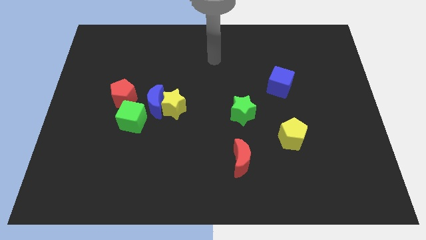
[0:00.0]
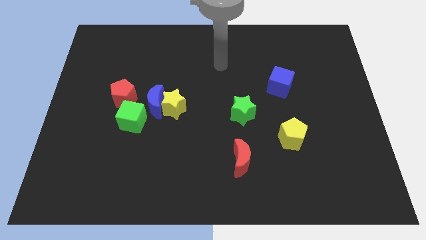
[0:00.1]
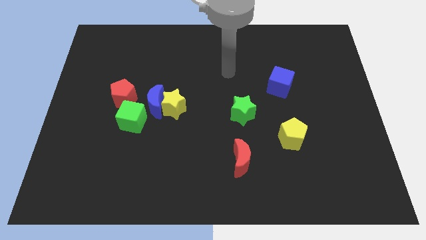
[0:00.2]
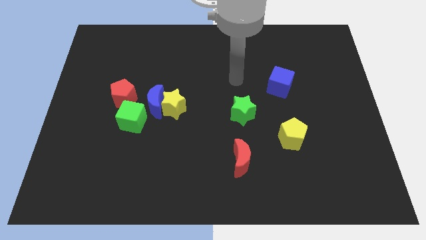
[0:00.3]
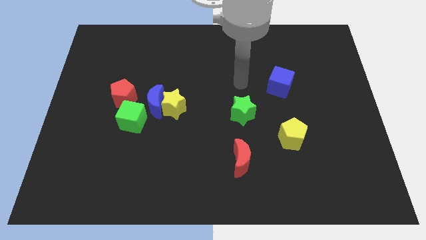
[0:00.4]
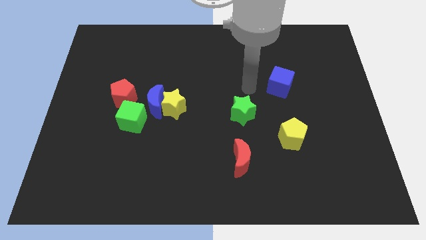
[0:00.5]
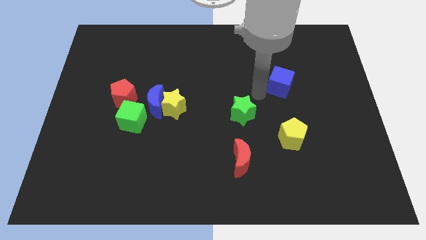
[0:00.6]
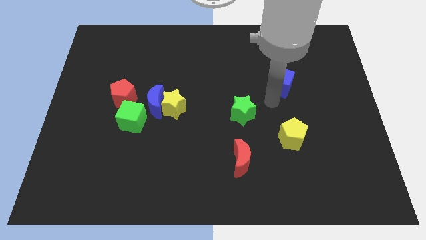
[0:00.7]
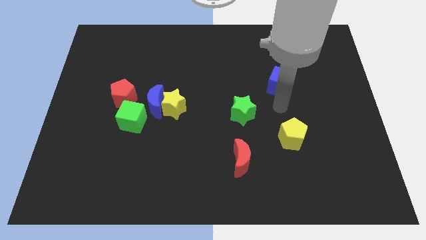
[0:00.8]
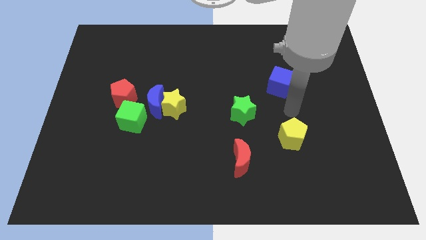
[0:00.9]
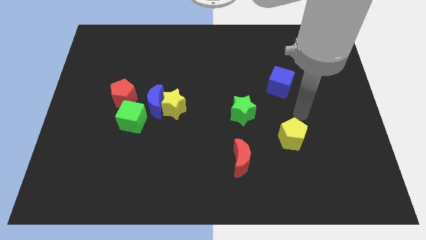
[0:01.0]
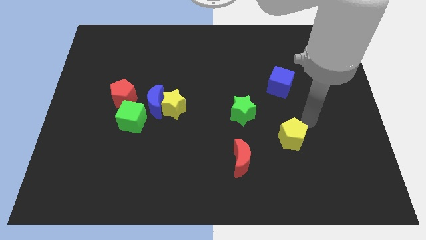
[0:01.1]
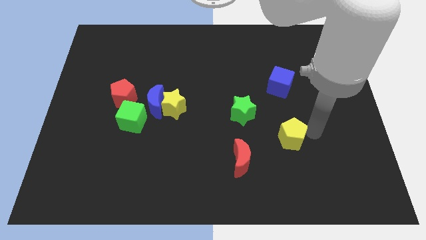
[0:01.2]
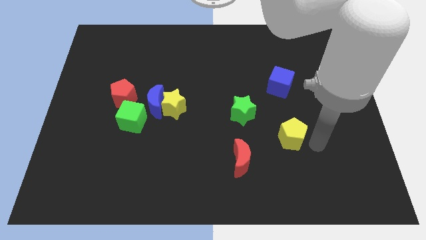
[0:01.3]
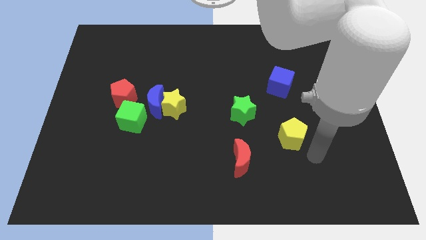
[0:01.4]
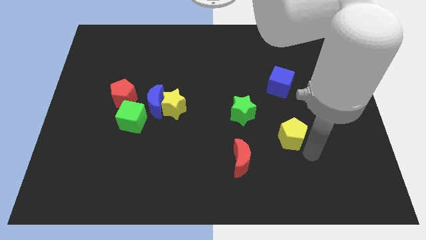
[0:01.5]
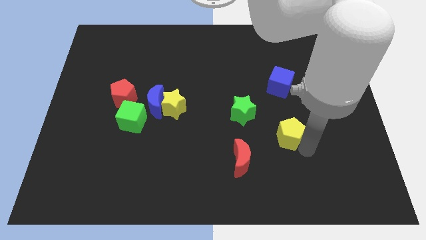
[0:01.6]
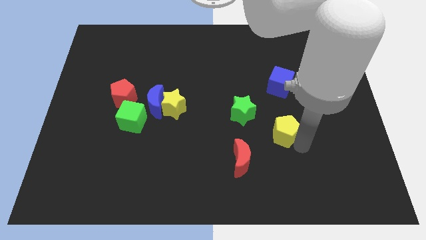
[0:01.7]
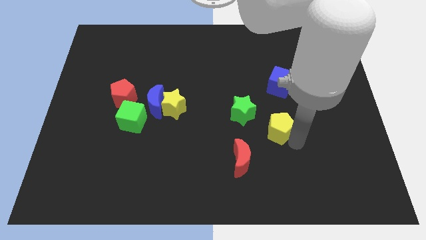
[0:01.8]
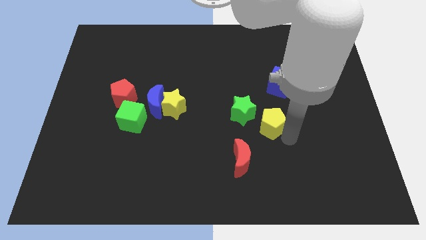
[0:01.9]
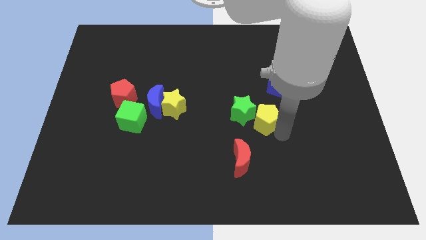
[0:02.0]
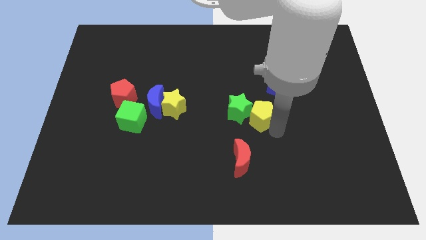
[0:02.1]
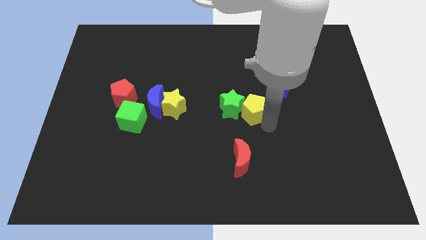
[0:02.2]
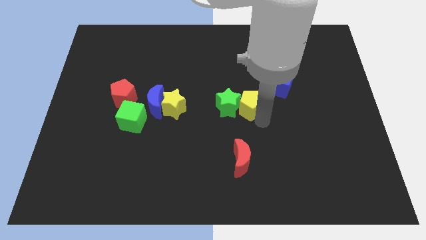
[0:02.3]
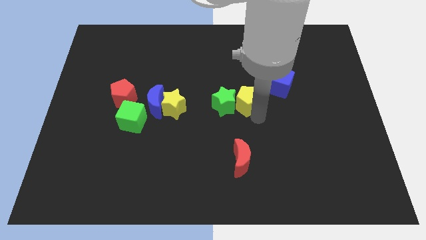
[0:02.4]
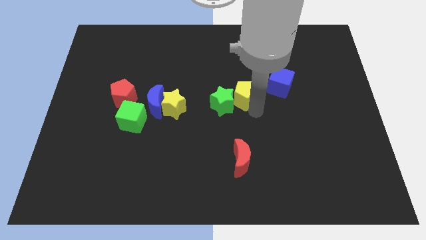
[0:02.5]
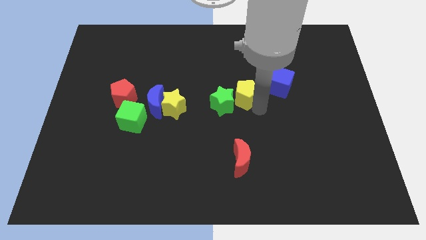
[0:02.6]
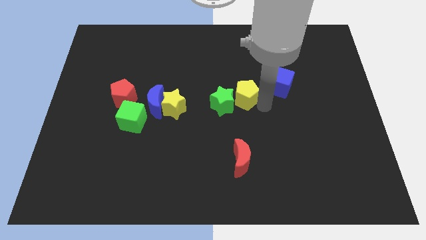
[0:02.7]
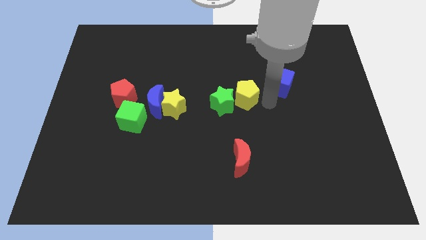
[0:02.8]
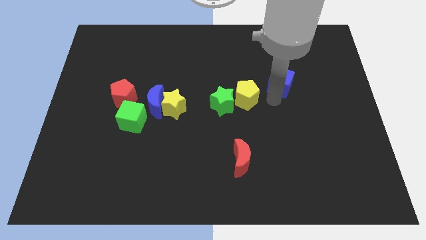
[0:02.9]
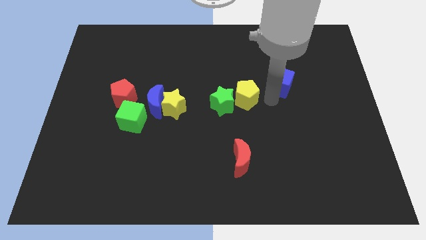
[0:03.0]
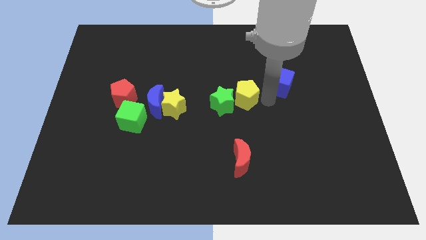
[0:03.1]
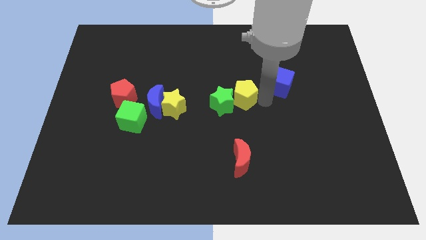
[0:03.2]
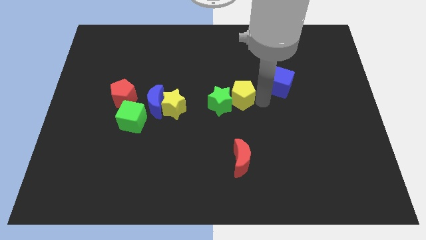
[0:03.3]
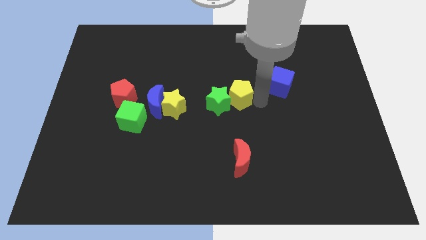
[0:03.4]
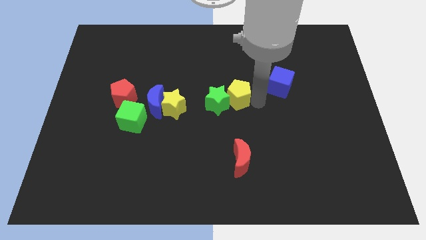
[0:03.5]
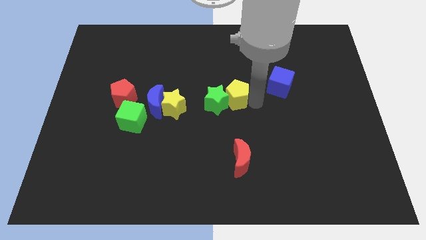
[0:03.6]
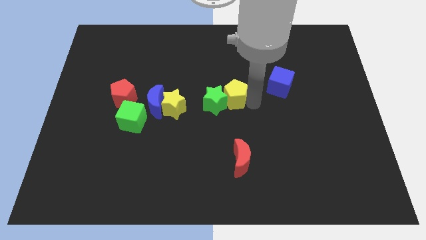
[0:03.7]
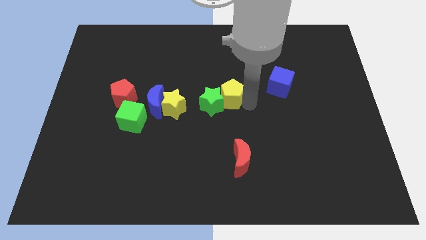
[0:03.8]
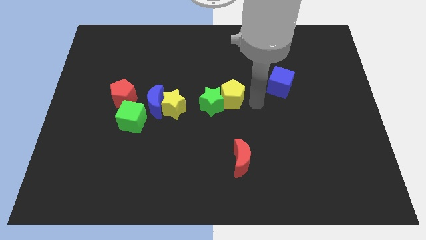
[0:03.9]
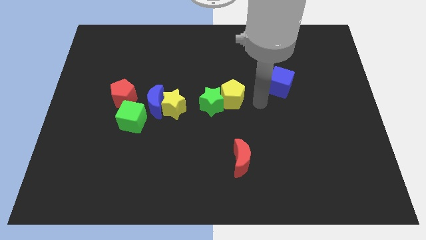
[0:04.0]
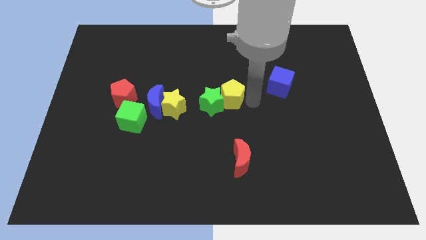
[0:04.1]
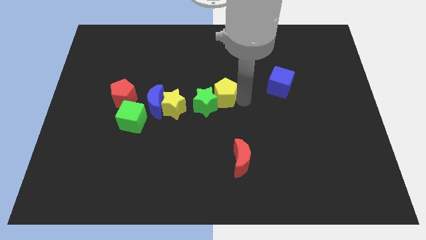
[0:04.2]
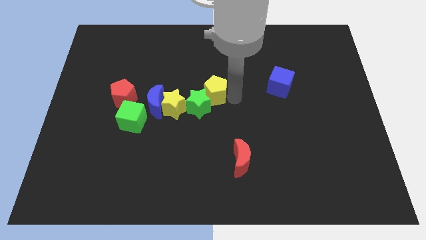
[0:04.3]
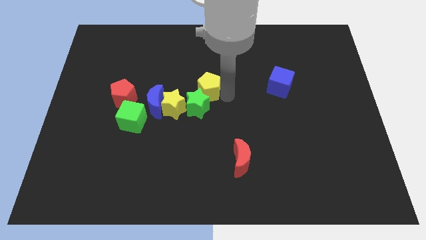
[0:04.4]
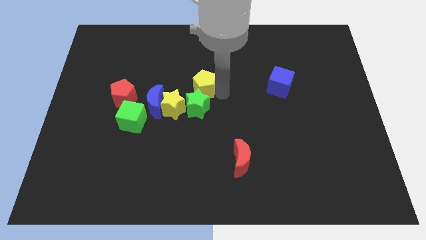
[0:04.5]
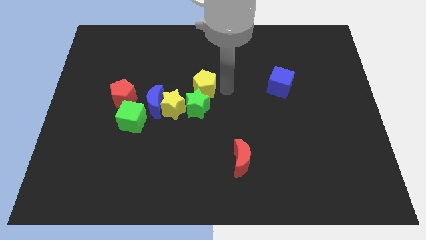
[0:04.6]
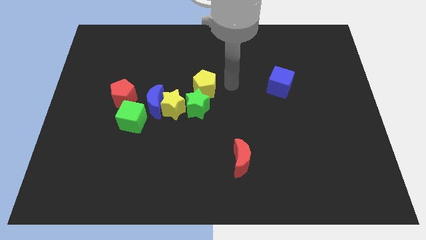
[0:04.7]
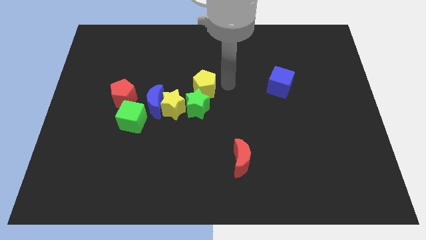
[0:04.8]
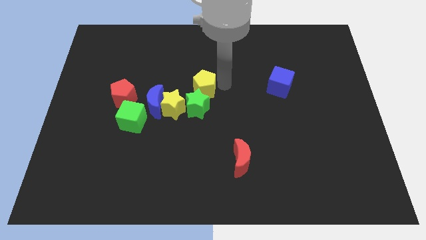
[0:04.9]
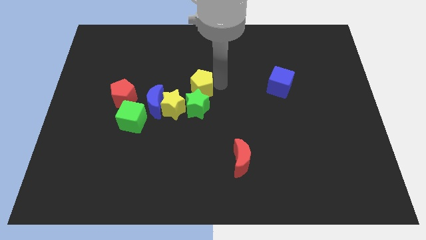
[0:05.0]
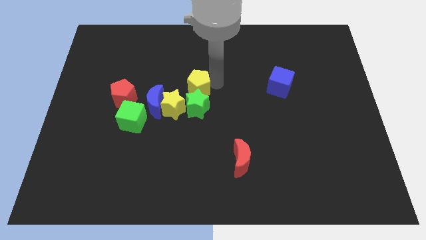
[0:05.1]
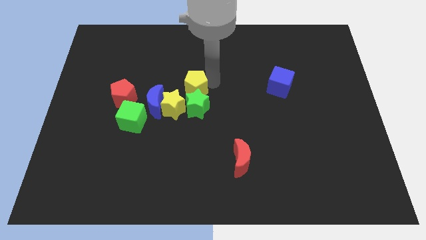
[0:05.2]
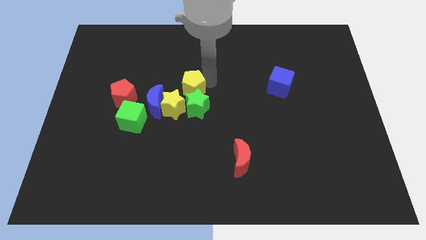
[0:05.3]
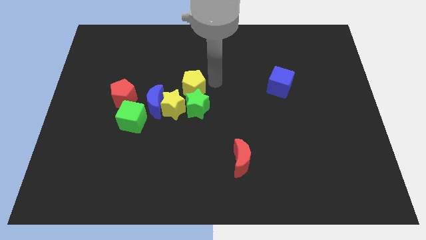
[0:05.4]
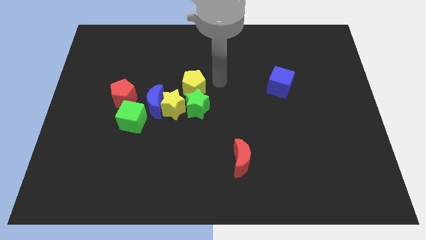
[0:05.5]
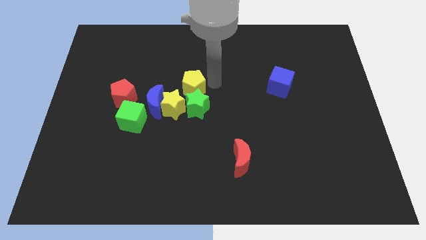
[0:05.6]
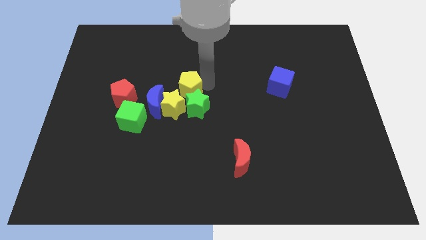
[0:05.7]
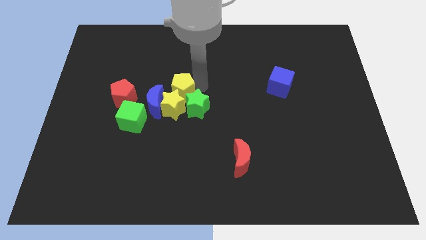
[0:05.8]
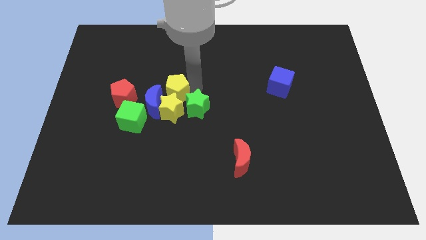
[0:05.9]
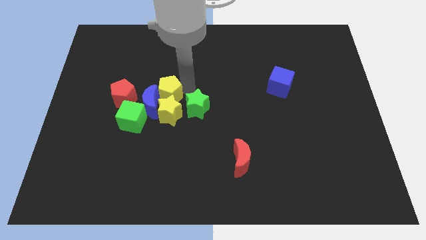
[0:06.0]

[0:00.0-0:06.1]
slide the yellow pentagon next to the blue moon

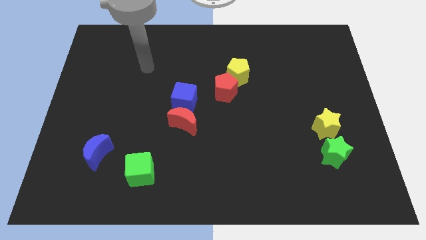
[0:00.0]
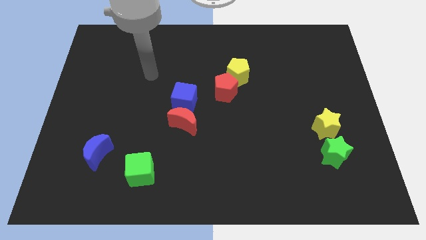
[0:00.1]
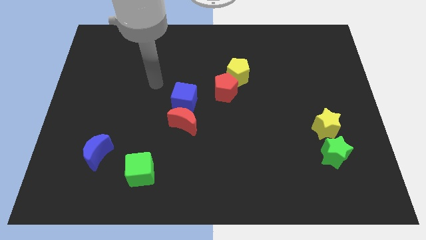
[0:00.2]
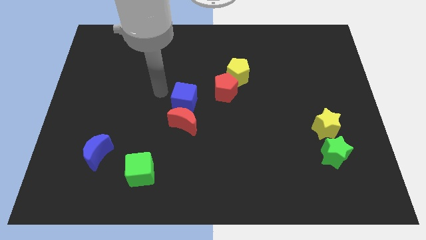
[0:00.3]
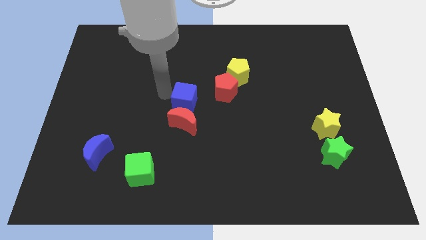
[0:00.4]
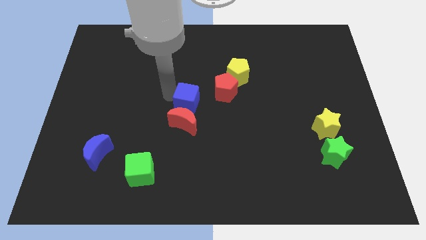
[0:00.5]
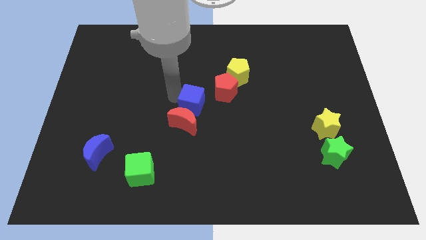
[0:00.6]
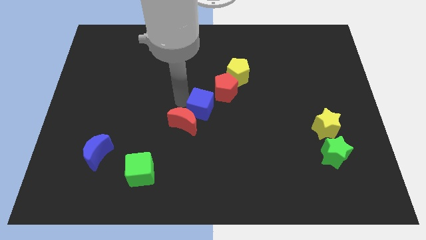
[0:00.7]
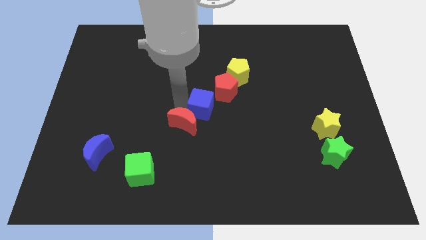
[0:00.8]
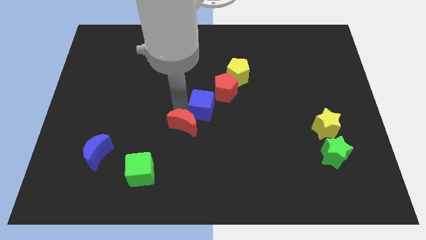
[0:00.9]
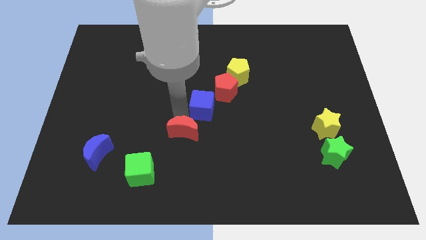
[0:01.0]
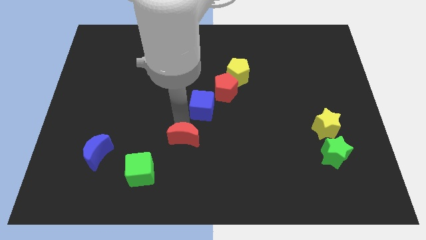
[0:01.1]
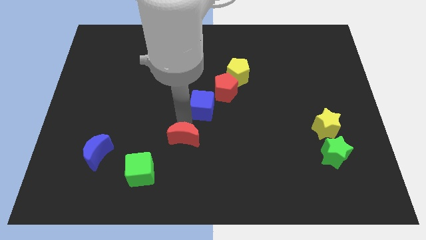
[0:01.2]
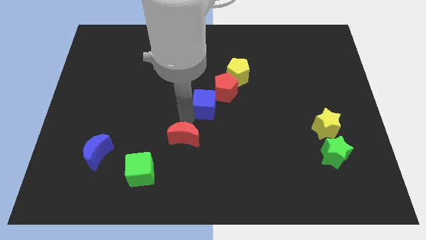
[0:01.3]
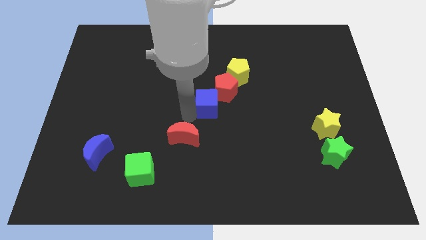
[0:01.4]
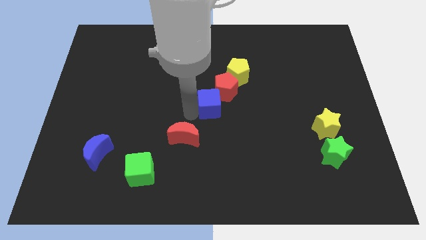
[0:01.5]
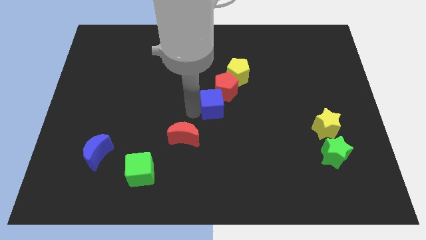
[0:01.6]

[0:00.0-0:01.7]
put the blue cube towards the red pentagon

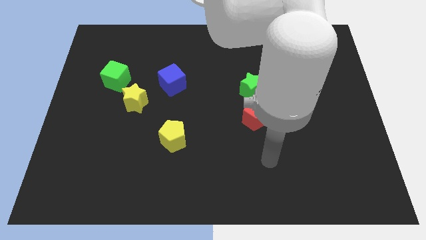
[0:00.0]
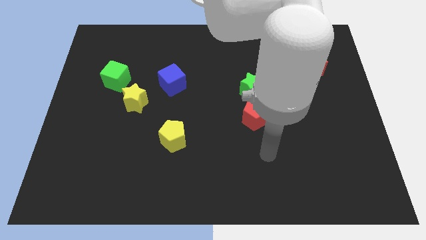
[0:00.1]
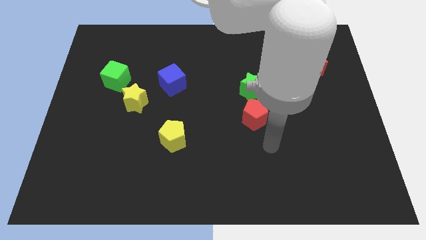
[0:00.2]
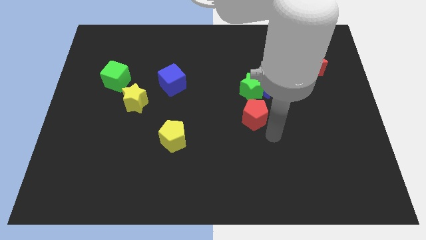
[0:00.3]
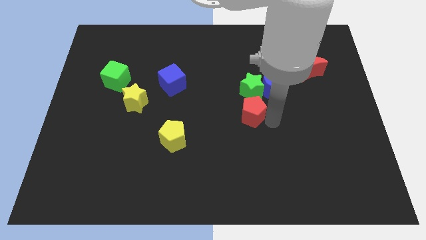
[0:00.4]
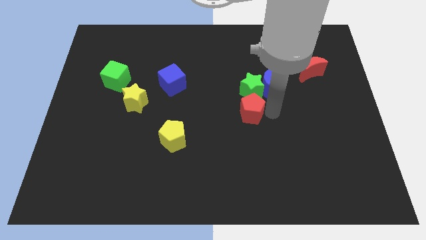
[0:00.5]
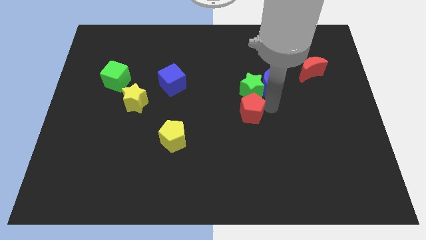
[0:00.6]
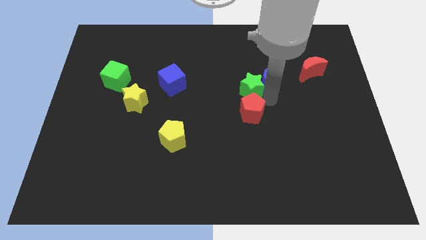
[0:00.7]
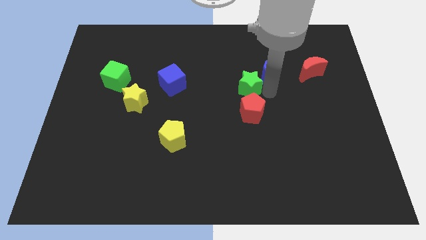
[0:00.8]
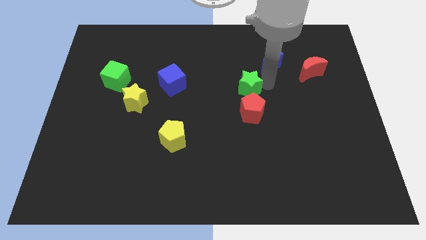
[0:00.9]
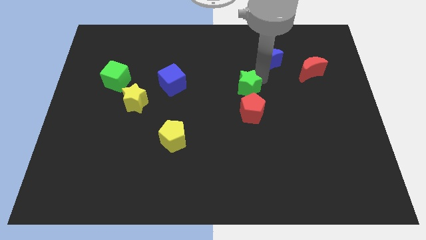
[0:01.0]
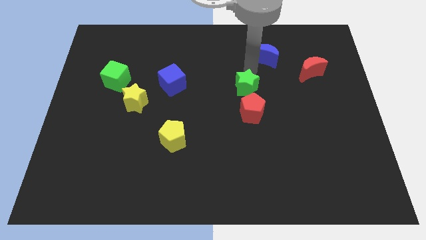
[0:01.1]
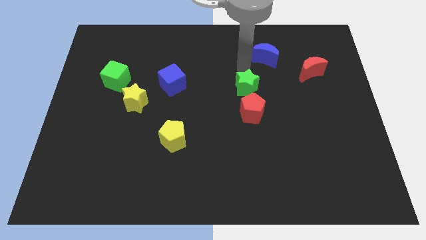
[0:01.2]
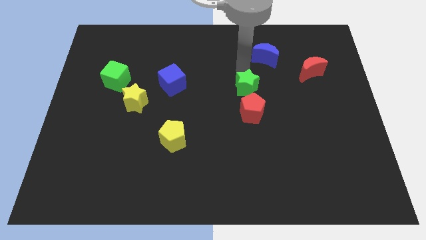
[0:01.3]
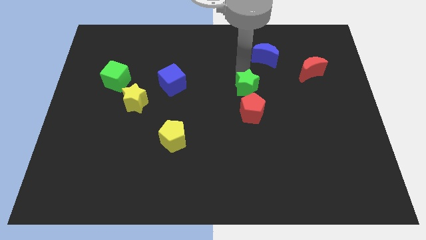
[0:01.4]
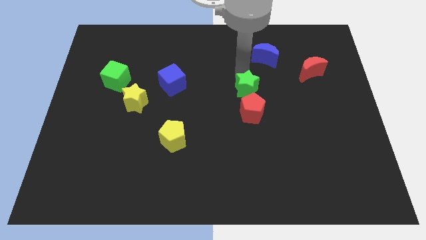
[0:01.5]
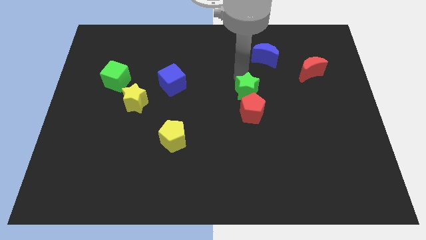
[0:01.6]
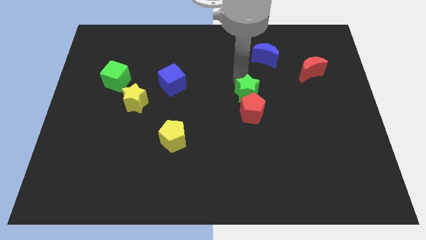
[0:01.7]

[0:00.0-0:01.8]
push the green star towards the red pentagon
